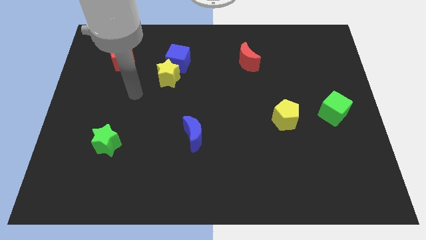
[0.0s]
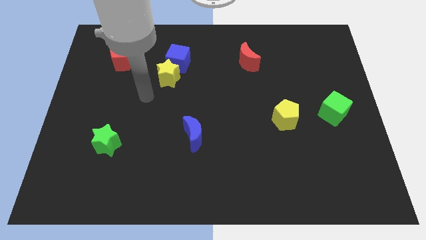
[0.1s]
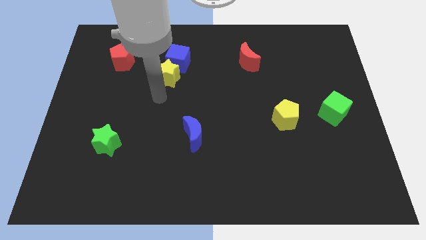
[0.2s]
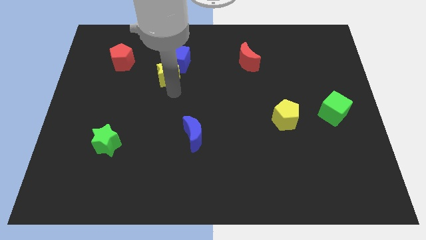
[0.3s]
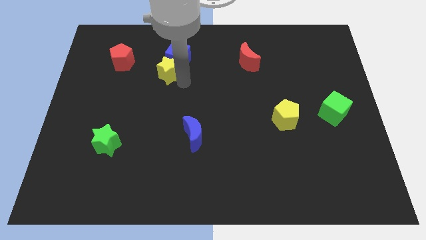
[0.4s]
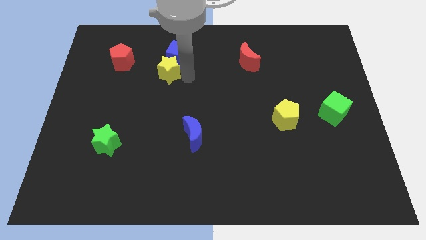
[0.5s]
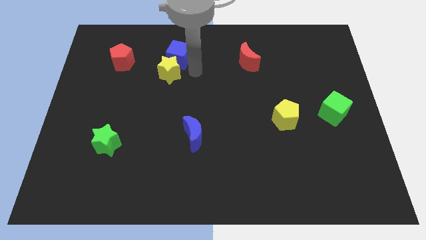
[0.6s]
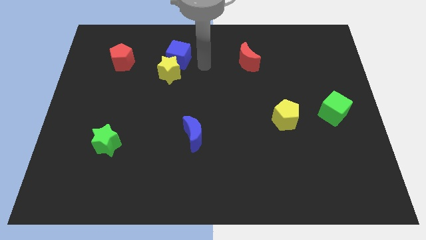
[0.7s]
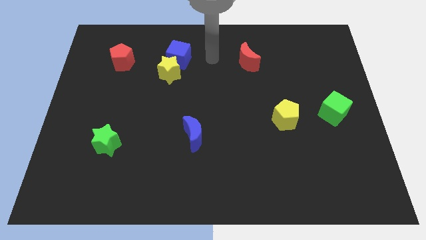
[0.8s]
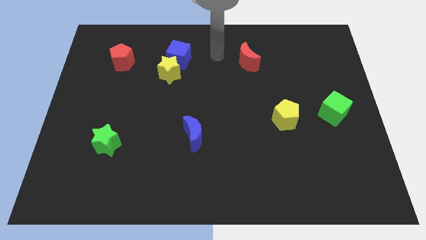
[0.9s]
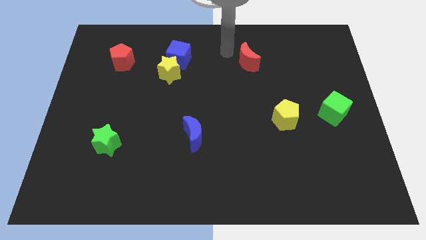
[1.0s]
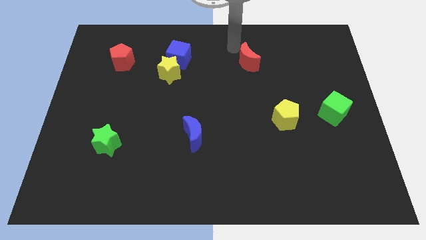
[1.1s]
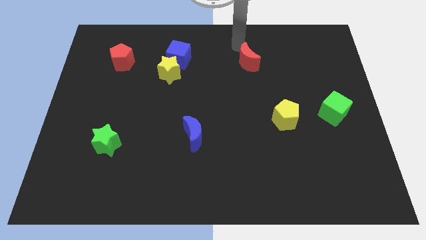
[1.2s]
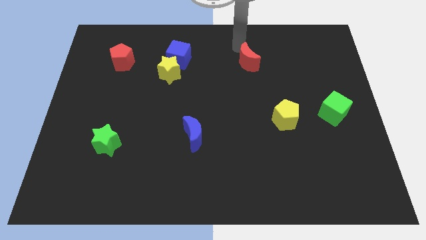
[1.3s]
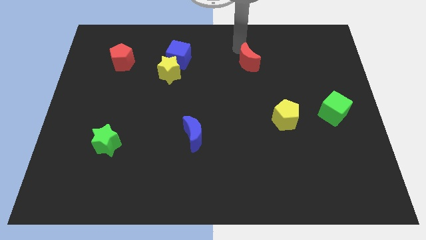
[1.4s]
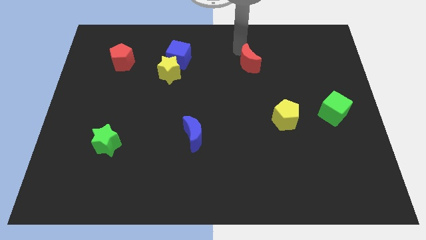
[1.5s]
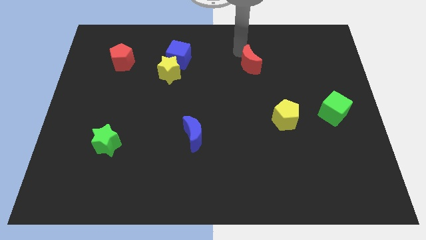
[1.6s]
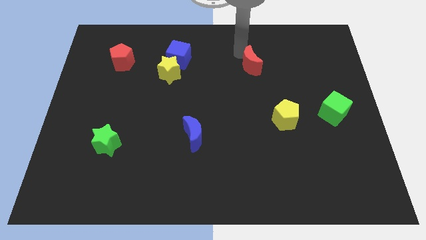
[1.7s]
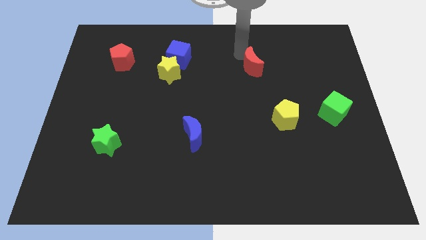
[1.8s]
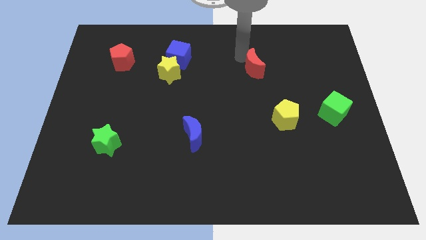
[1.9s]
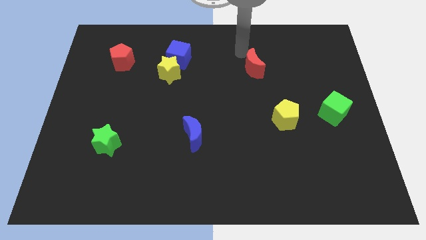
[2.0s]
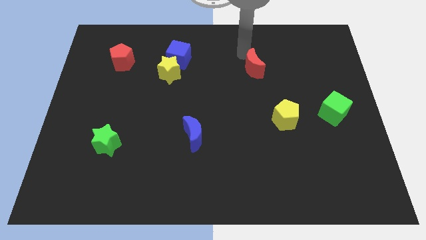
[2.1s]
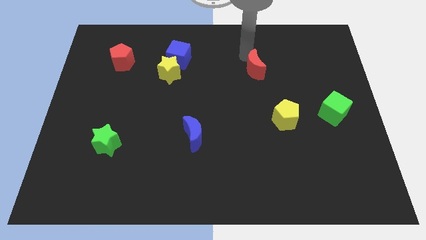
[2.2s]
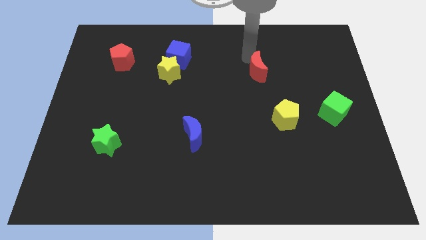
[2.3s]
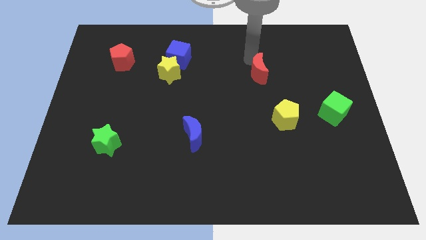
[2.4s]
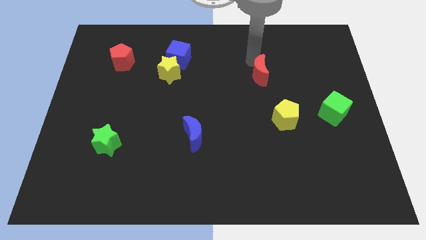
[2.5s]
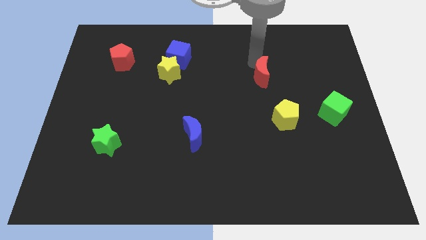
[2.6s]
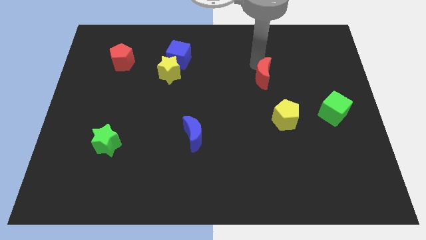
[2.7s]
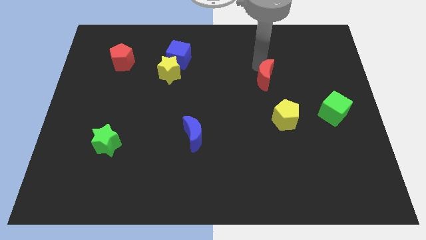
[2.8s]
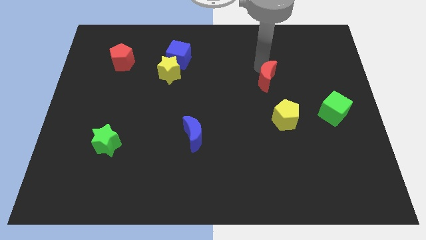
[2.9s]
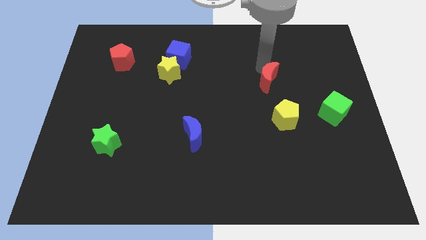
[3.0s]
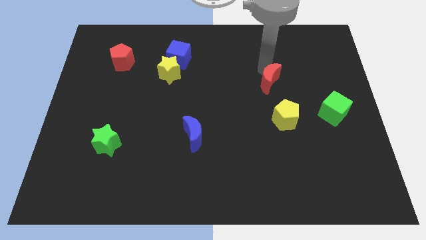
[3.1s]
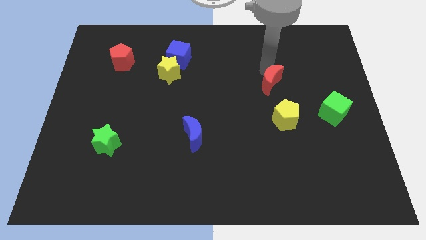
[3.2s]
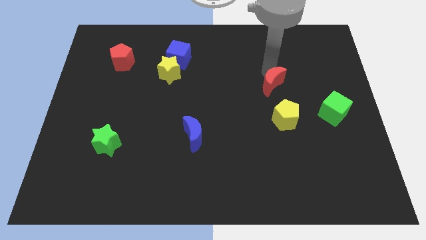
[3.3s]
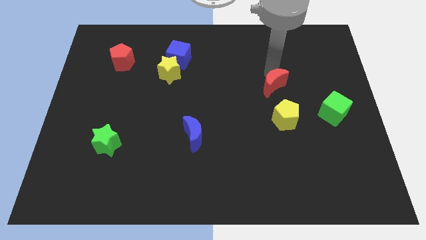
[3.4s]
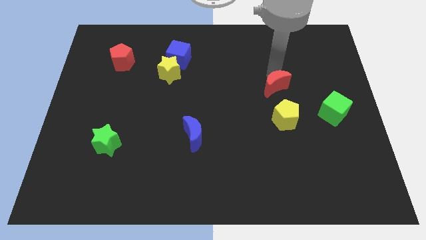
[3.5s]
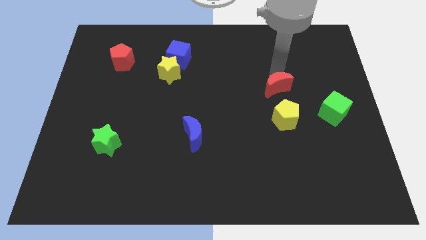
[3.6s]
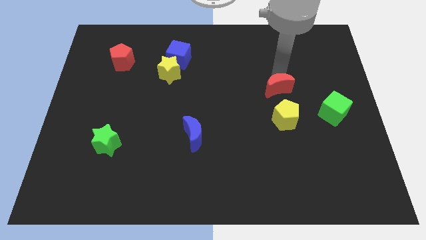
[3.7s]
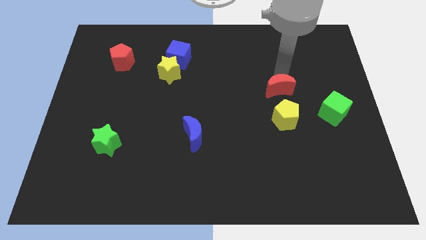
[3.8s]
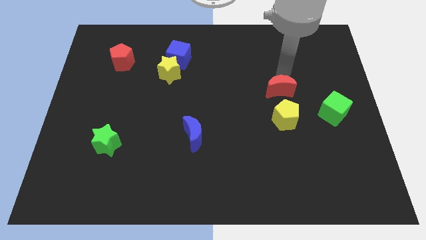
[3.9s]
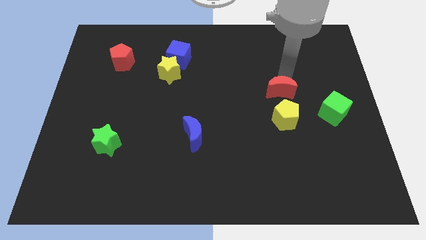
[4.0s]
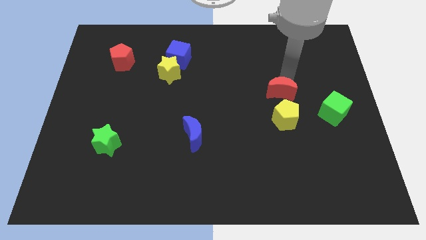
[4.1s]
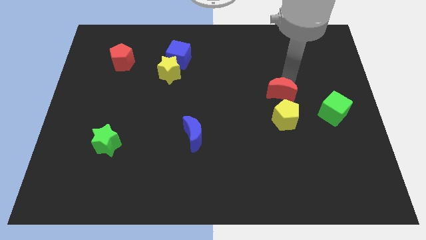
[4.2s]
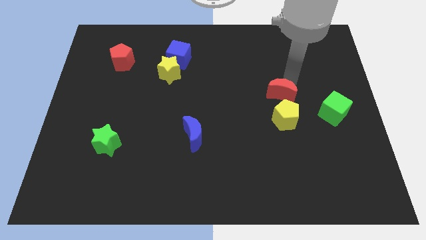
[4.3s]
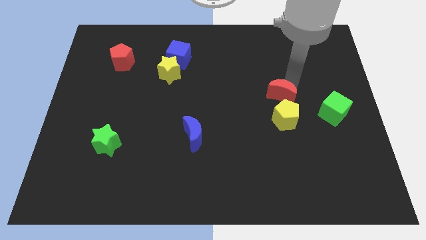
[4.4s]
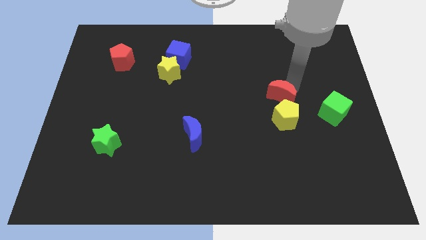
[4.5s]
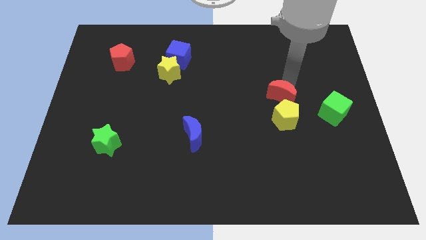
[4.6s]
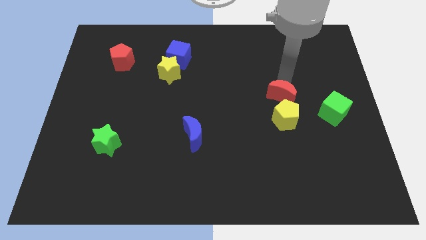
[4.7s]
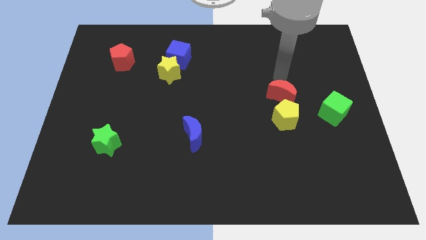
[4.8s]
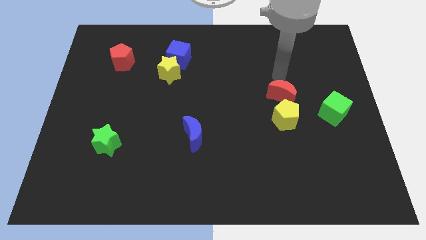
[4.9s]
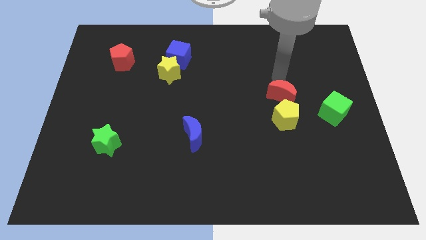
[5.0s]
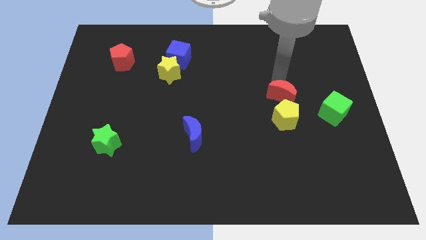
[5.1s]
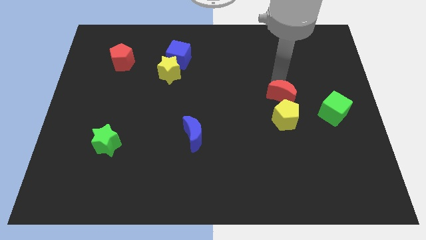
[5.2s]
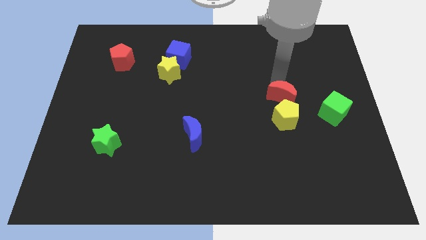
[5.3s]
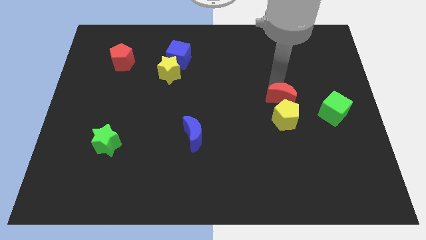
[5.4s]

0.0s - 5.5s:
put the red moon to the yellow pentagon
